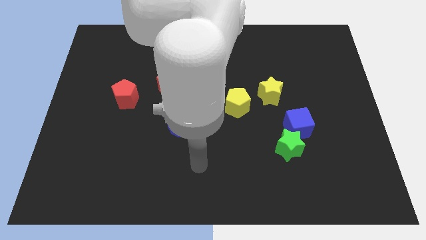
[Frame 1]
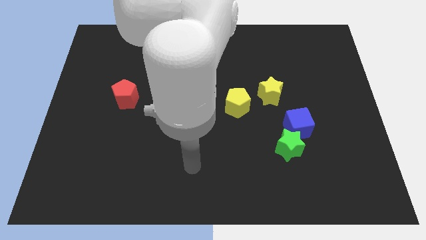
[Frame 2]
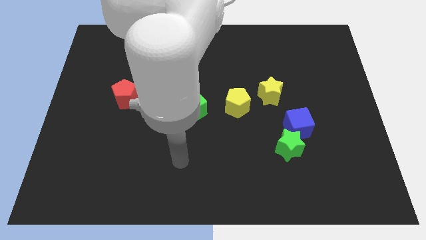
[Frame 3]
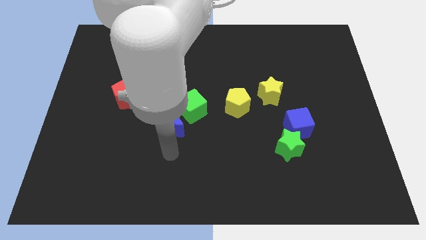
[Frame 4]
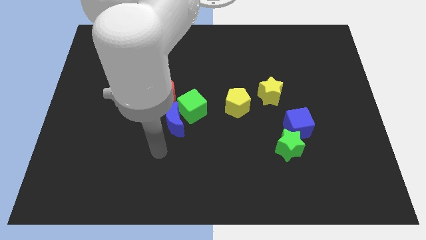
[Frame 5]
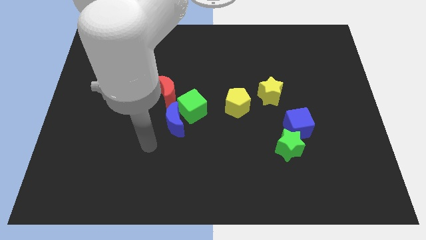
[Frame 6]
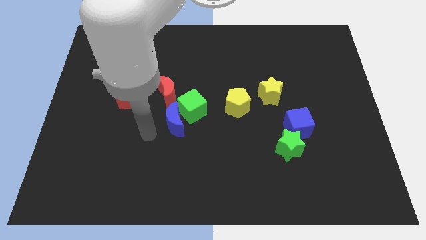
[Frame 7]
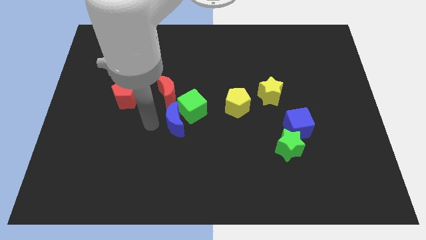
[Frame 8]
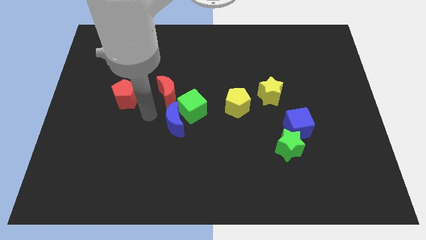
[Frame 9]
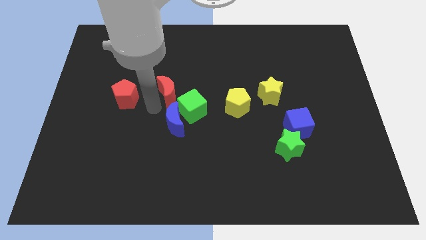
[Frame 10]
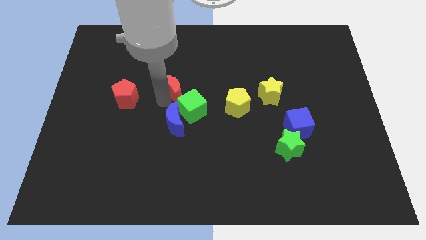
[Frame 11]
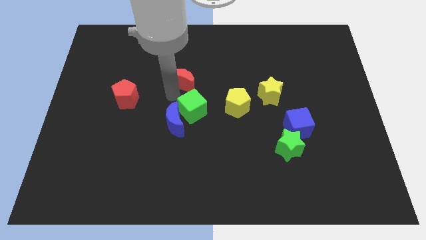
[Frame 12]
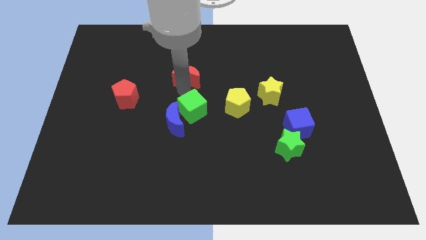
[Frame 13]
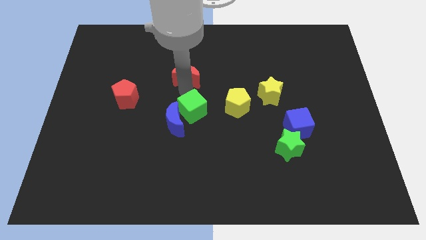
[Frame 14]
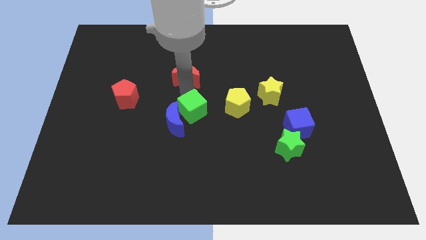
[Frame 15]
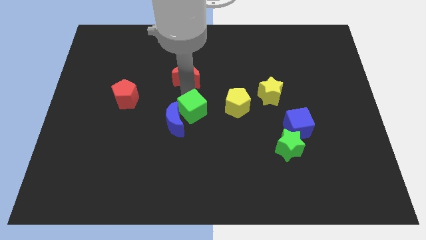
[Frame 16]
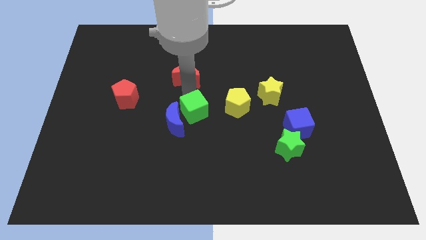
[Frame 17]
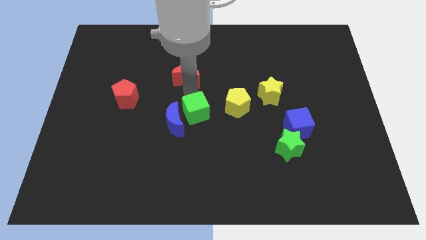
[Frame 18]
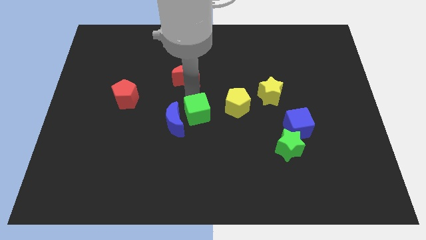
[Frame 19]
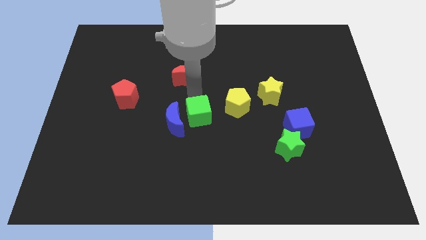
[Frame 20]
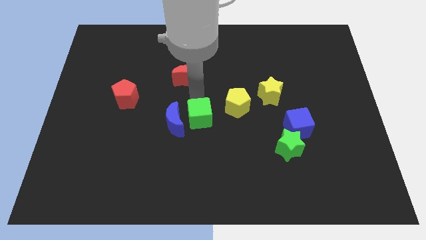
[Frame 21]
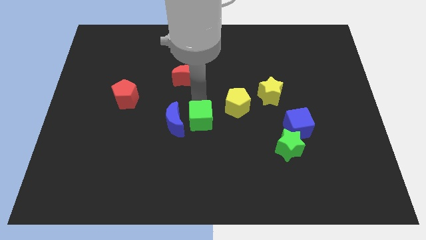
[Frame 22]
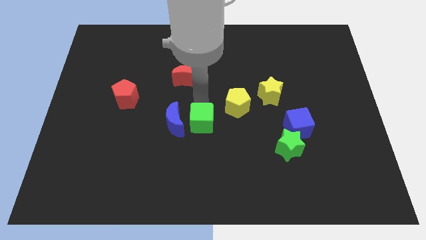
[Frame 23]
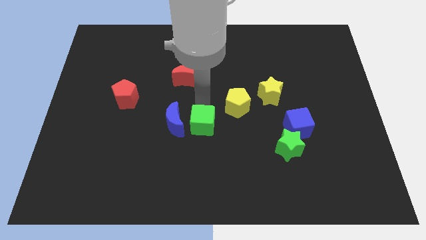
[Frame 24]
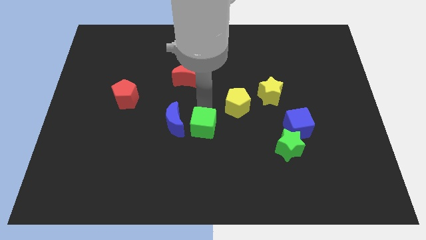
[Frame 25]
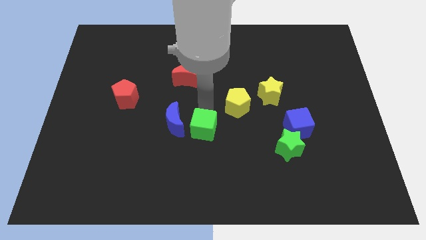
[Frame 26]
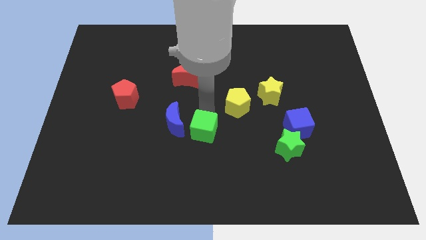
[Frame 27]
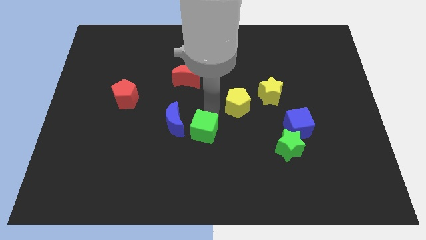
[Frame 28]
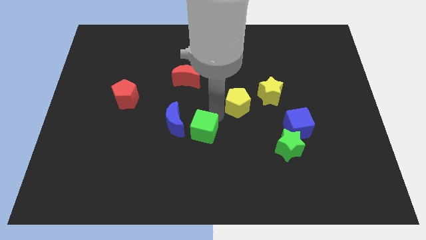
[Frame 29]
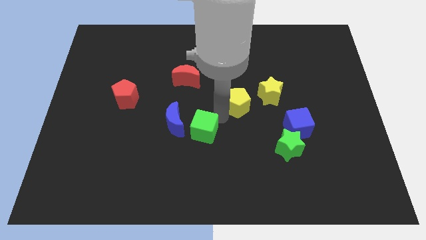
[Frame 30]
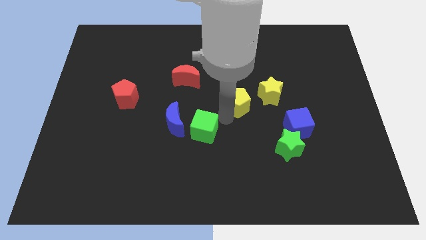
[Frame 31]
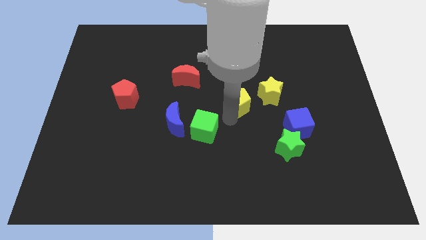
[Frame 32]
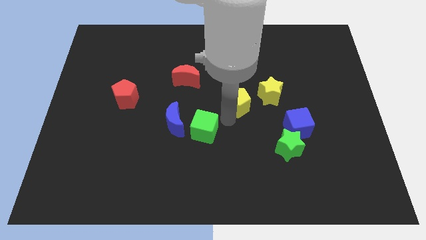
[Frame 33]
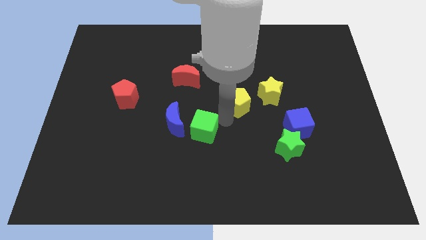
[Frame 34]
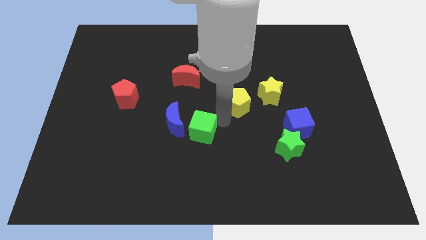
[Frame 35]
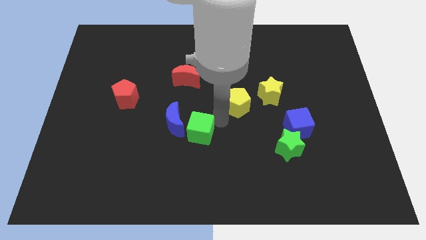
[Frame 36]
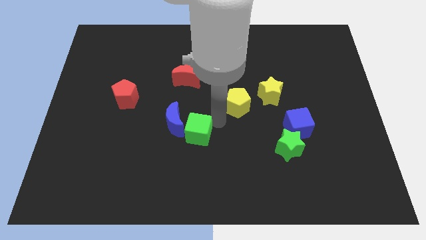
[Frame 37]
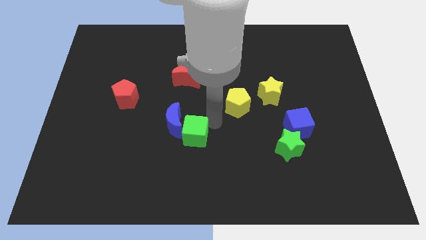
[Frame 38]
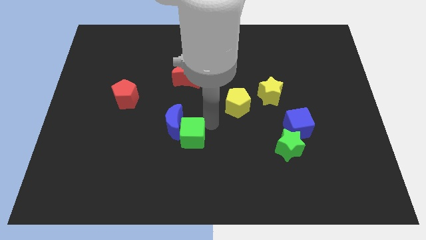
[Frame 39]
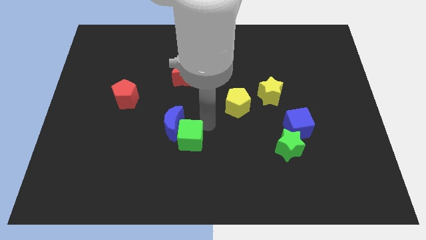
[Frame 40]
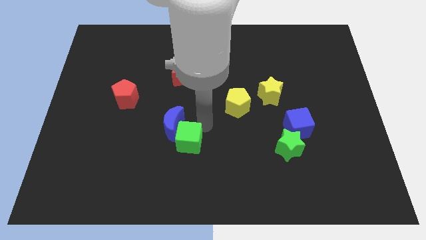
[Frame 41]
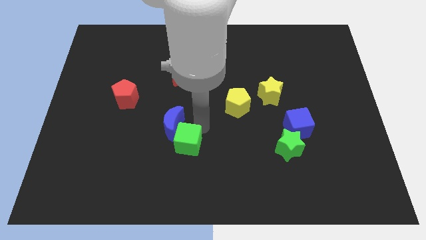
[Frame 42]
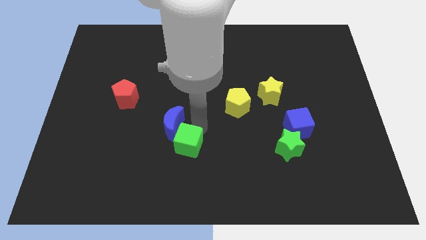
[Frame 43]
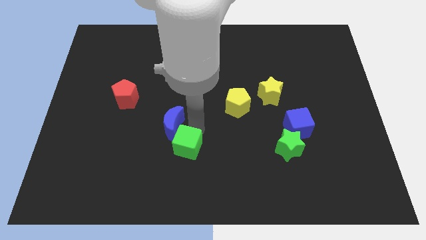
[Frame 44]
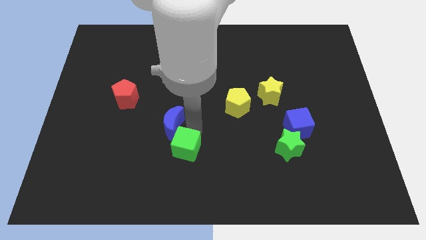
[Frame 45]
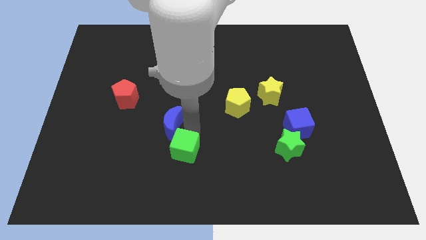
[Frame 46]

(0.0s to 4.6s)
move the green cube down and left diagonally a bit

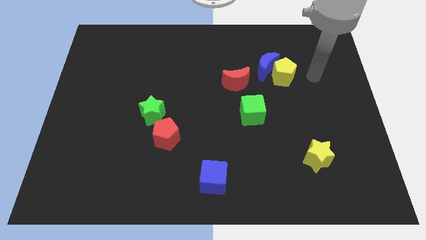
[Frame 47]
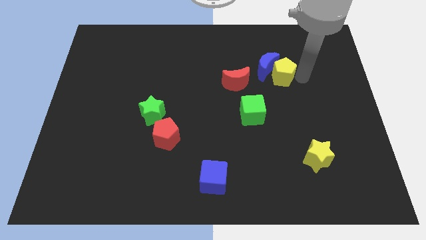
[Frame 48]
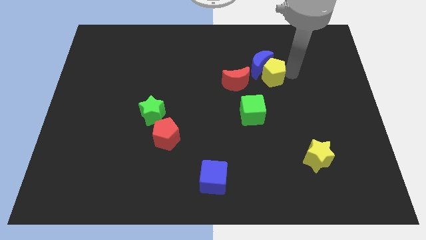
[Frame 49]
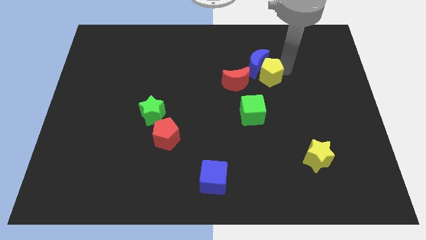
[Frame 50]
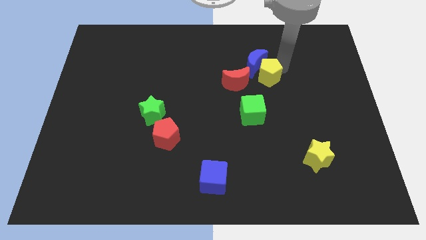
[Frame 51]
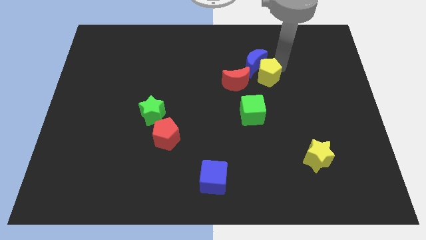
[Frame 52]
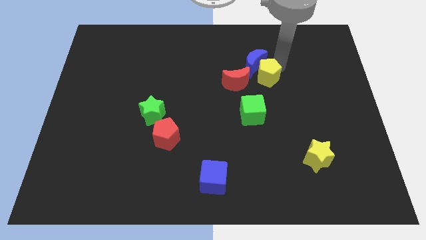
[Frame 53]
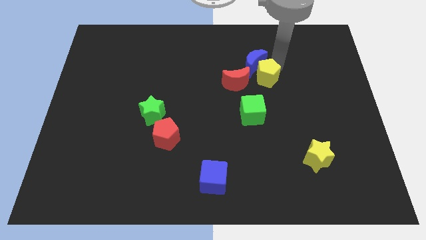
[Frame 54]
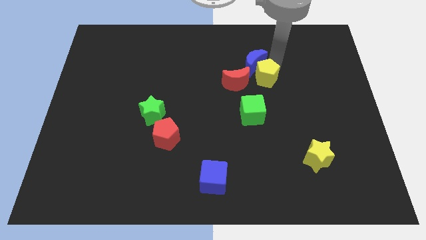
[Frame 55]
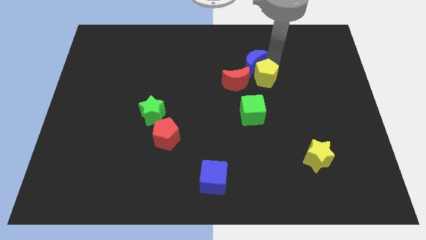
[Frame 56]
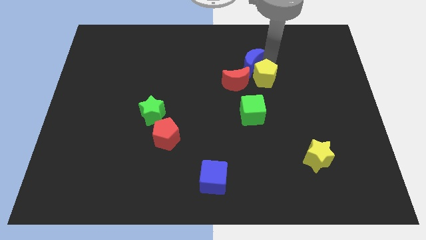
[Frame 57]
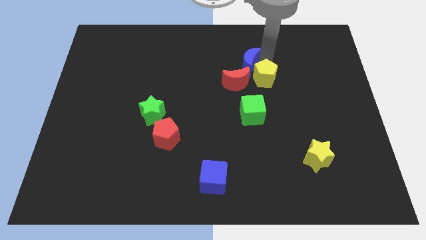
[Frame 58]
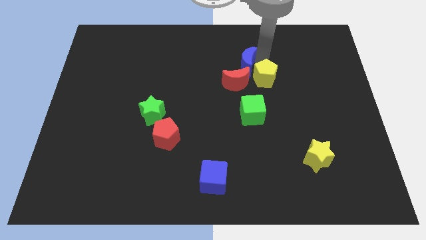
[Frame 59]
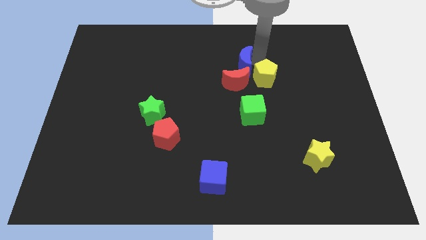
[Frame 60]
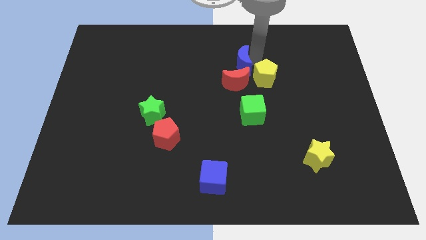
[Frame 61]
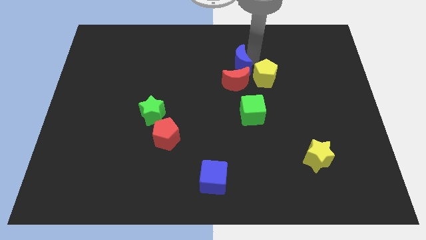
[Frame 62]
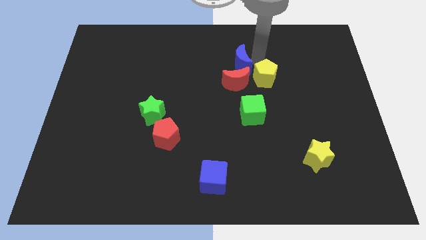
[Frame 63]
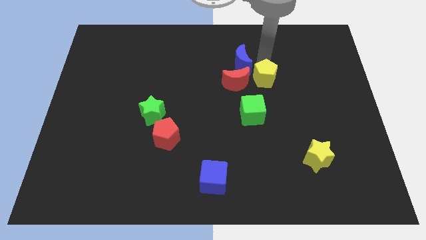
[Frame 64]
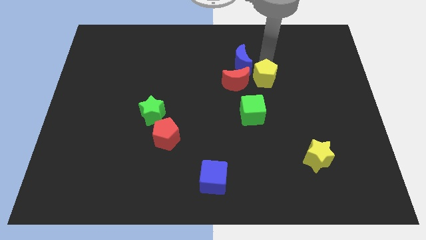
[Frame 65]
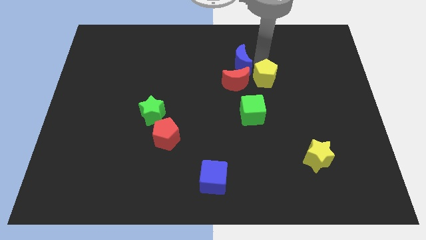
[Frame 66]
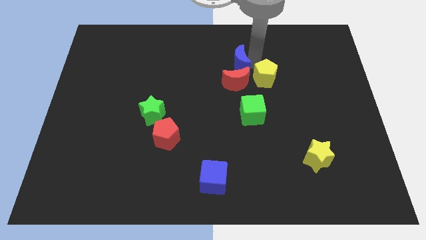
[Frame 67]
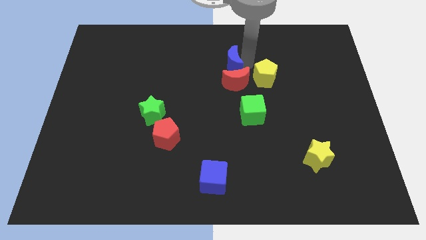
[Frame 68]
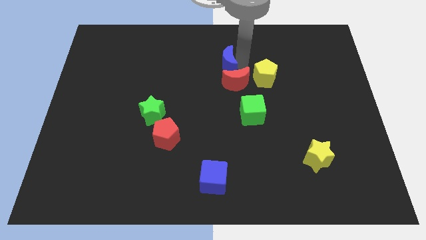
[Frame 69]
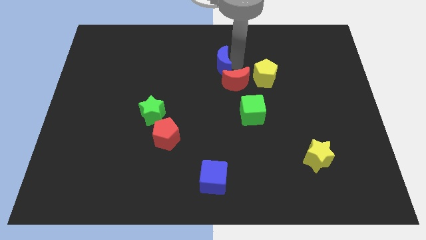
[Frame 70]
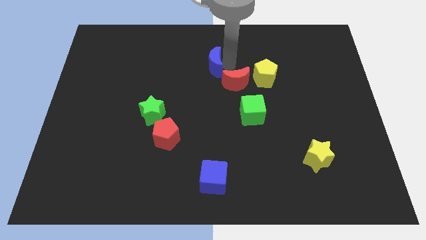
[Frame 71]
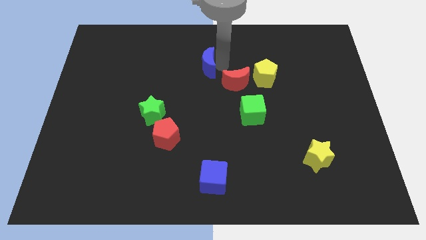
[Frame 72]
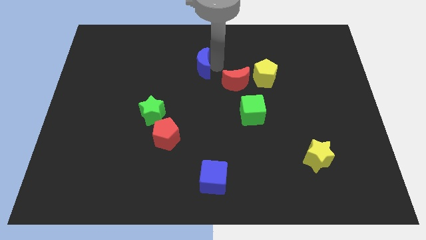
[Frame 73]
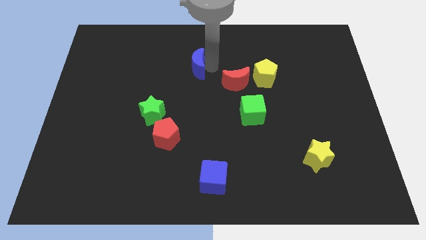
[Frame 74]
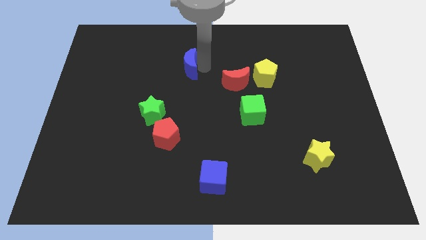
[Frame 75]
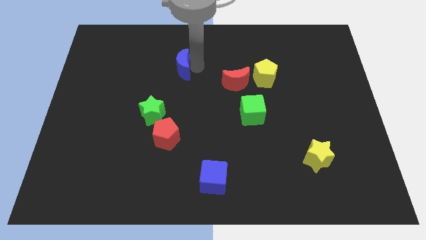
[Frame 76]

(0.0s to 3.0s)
slide the blue moon left
